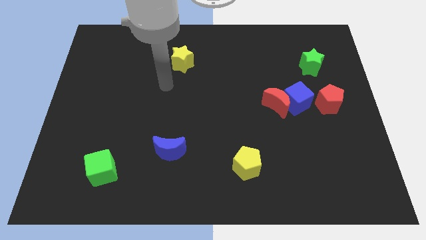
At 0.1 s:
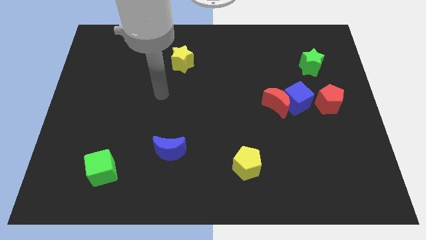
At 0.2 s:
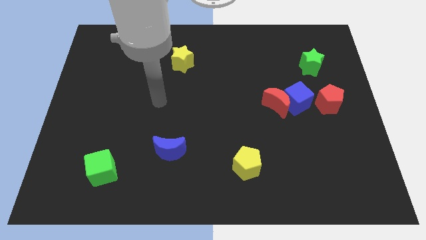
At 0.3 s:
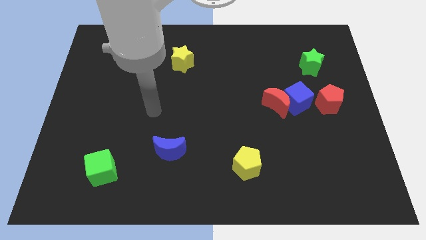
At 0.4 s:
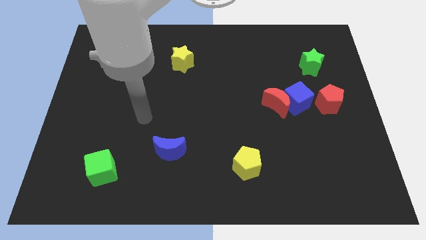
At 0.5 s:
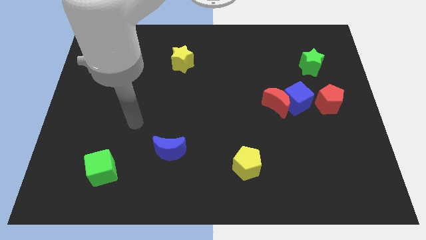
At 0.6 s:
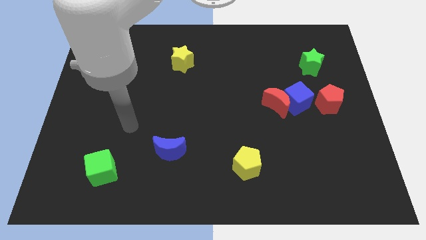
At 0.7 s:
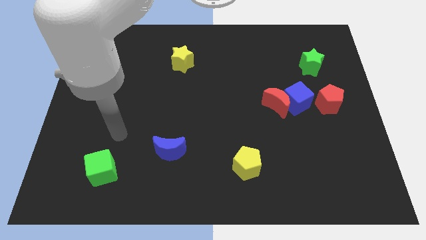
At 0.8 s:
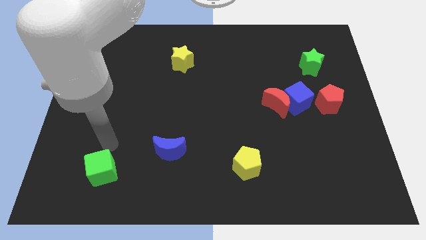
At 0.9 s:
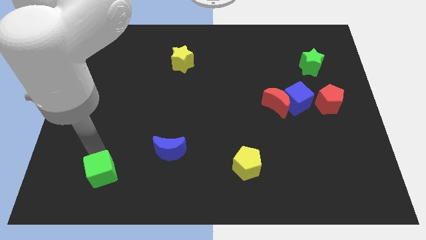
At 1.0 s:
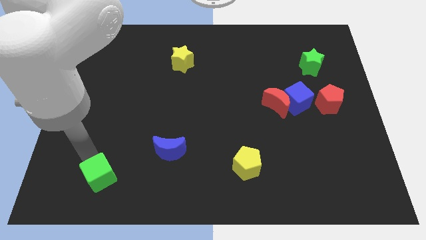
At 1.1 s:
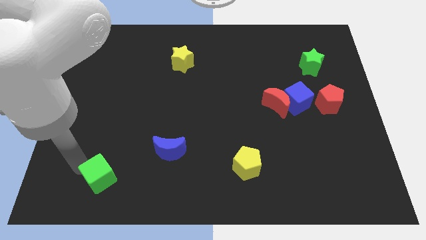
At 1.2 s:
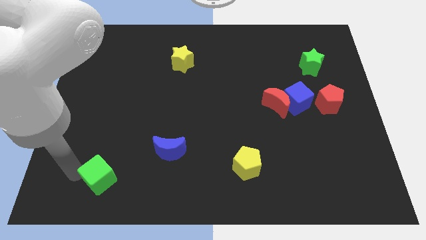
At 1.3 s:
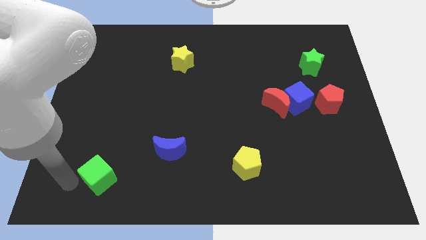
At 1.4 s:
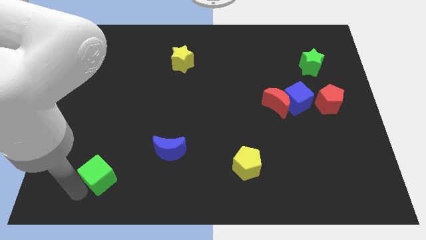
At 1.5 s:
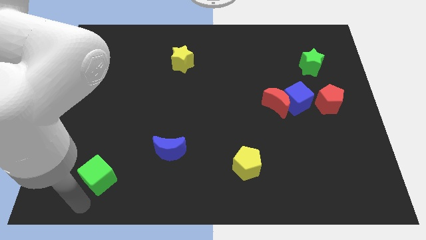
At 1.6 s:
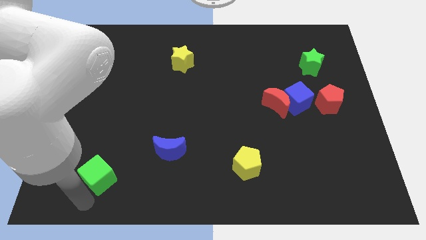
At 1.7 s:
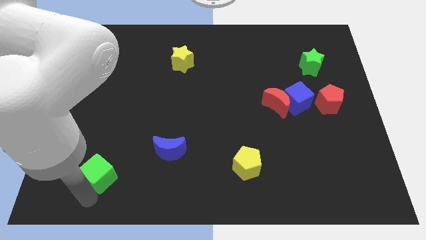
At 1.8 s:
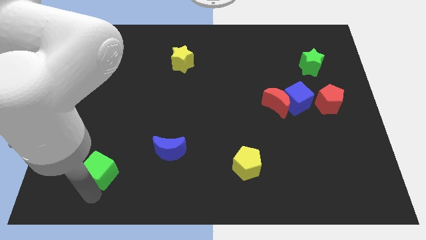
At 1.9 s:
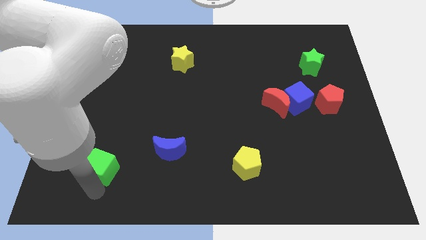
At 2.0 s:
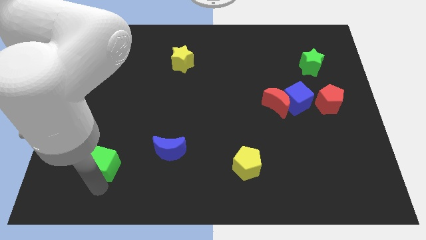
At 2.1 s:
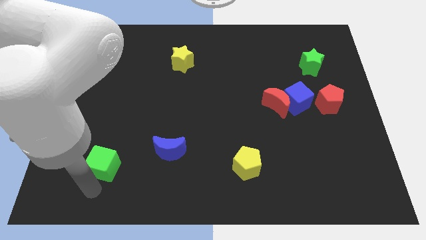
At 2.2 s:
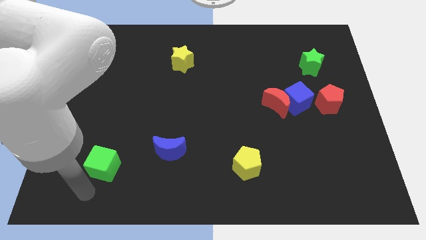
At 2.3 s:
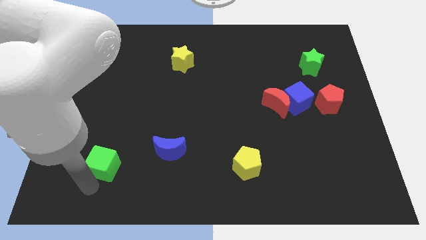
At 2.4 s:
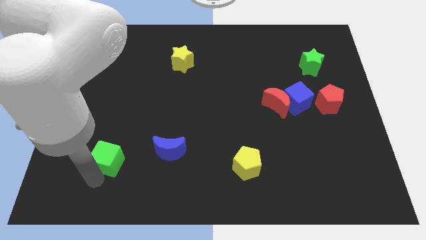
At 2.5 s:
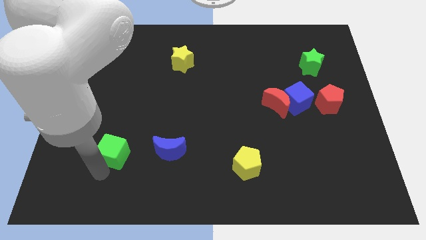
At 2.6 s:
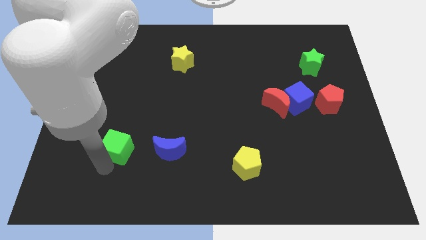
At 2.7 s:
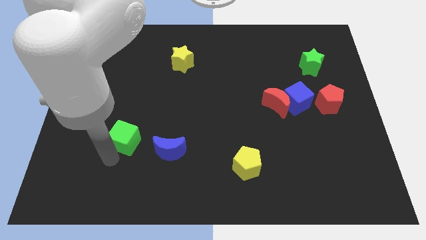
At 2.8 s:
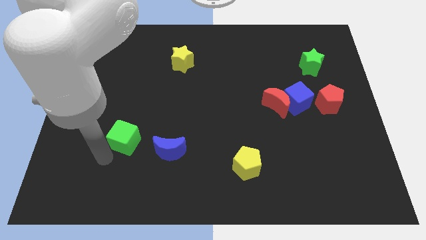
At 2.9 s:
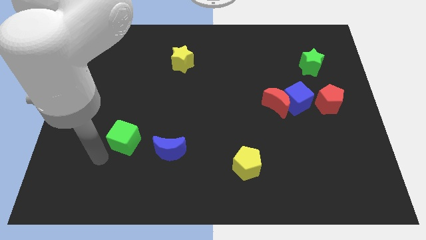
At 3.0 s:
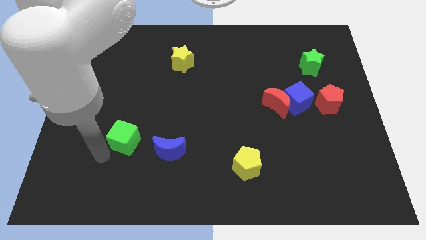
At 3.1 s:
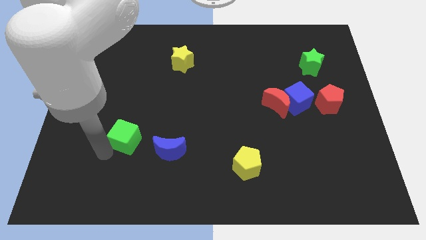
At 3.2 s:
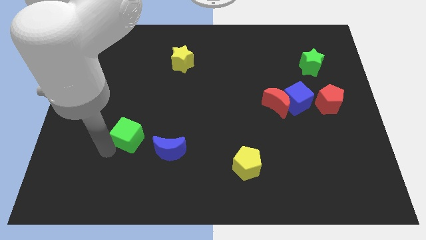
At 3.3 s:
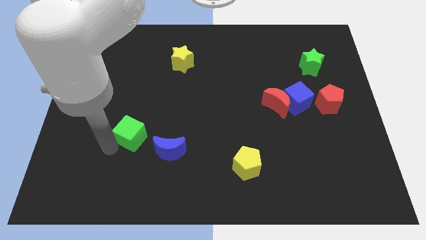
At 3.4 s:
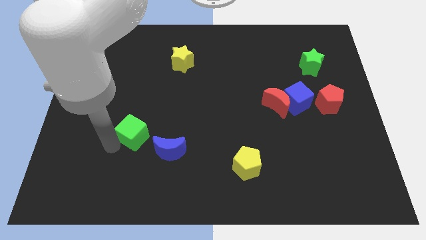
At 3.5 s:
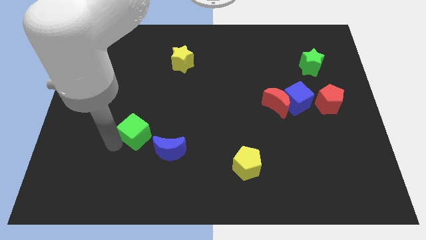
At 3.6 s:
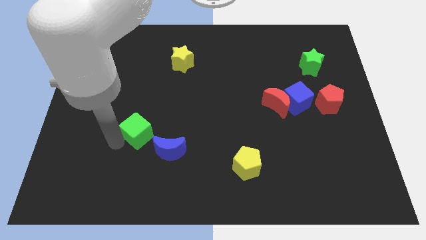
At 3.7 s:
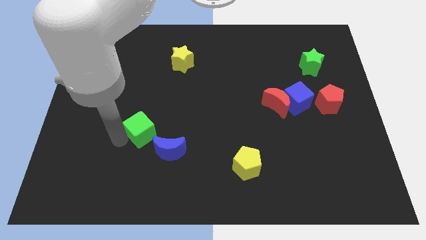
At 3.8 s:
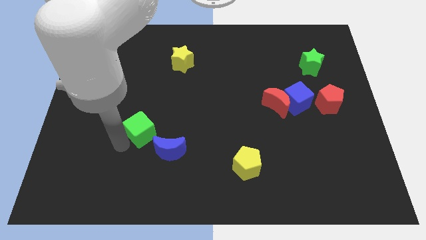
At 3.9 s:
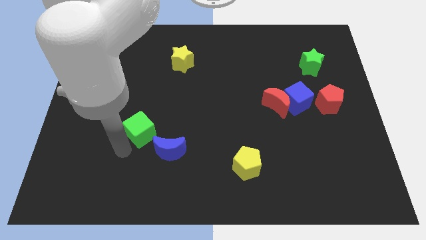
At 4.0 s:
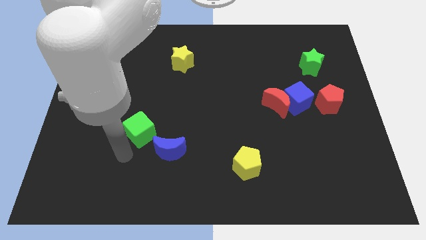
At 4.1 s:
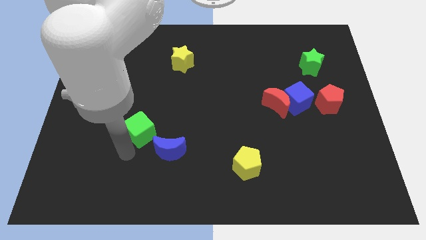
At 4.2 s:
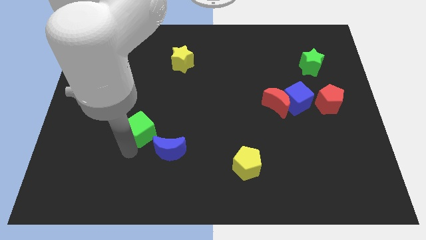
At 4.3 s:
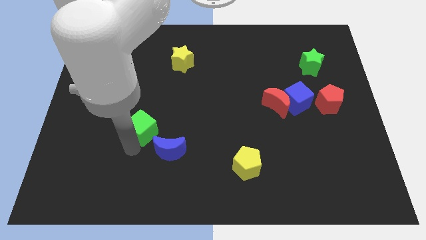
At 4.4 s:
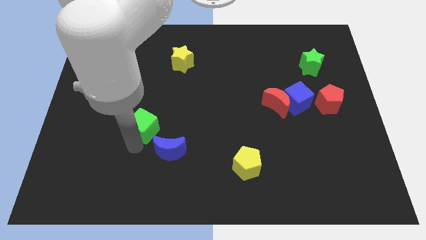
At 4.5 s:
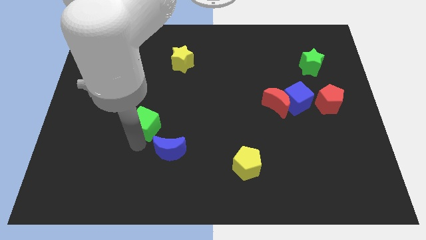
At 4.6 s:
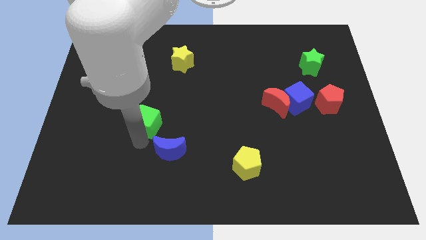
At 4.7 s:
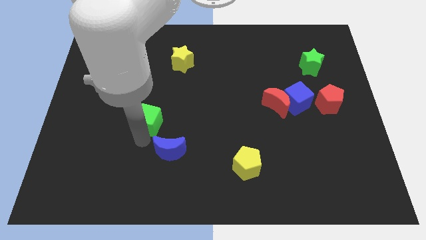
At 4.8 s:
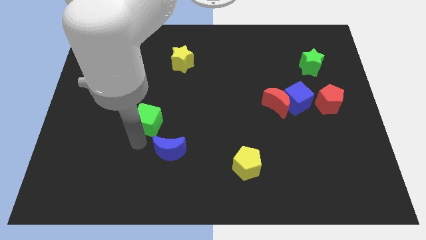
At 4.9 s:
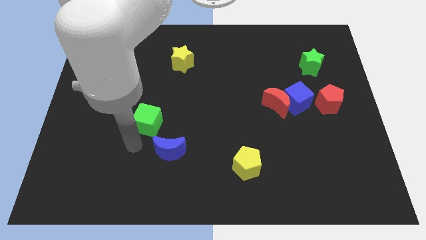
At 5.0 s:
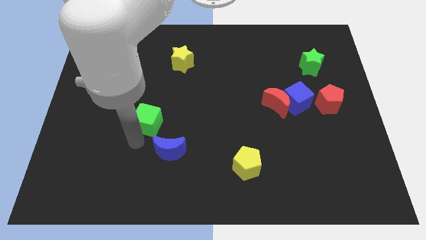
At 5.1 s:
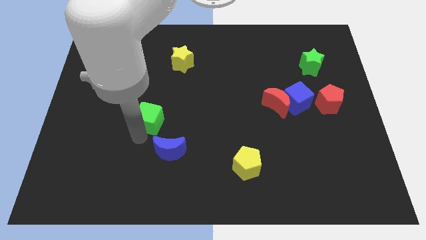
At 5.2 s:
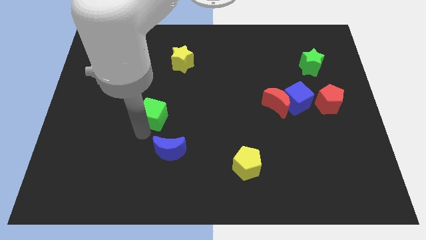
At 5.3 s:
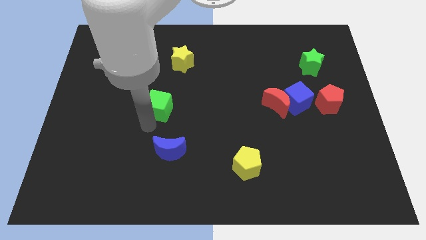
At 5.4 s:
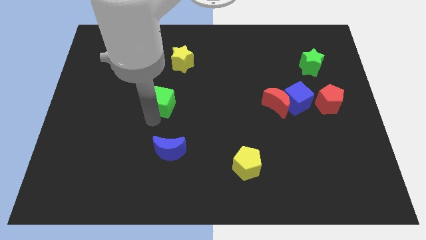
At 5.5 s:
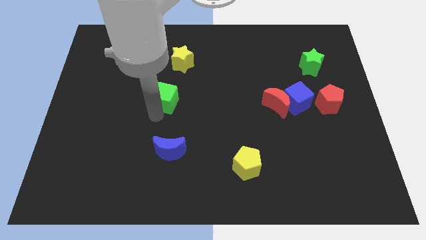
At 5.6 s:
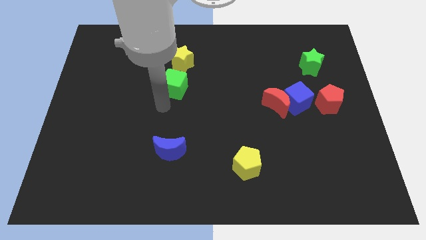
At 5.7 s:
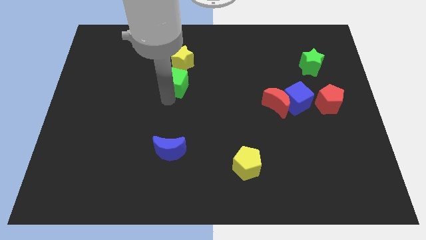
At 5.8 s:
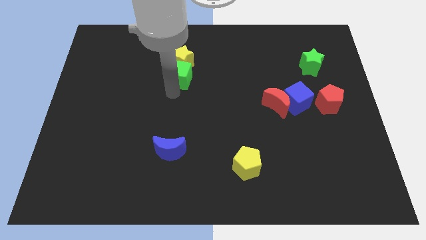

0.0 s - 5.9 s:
put the green cube close to the yellow star

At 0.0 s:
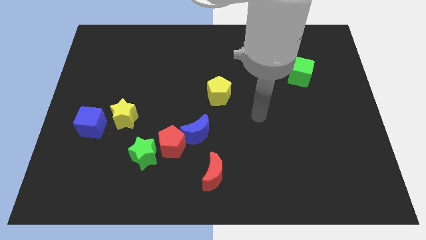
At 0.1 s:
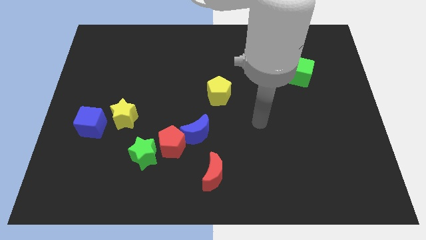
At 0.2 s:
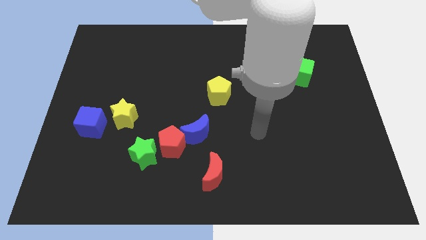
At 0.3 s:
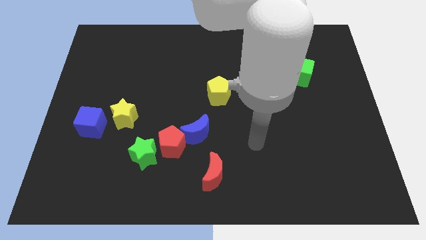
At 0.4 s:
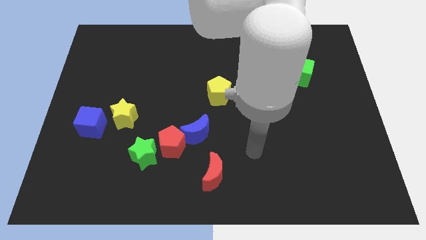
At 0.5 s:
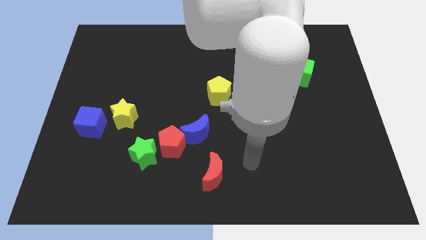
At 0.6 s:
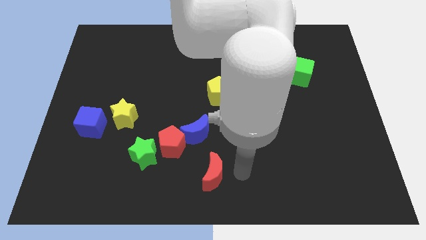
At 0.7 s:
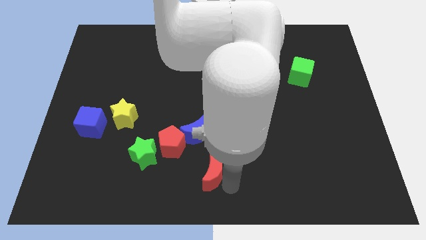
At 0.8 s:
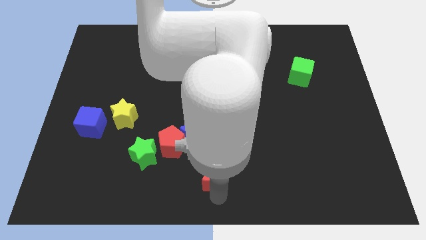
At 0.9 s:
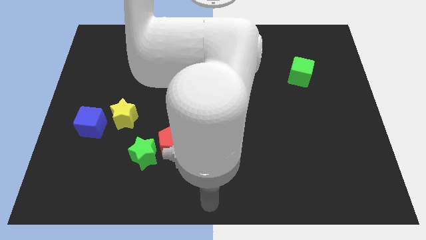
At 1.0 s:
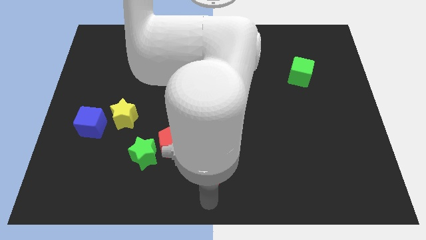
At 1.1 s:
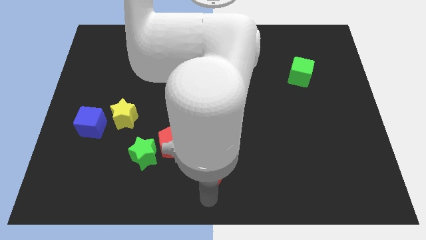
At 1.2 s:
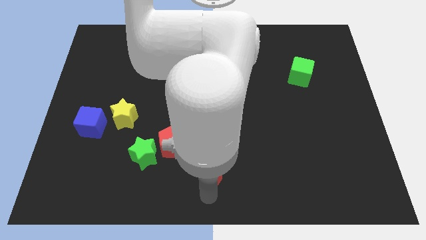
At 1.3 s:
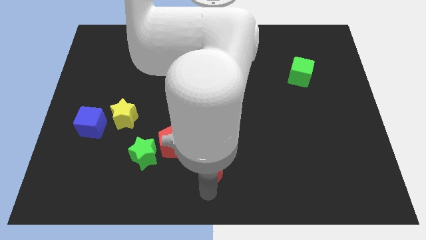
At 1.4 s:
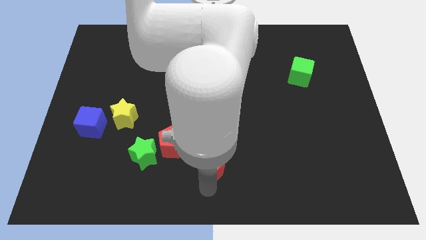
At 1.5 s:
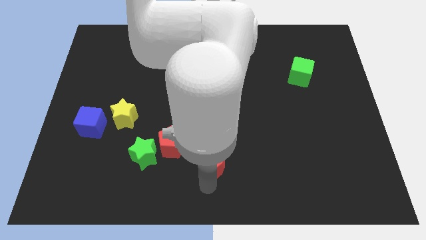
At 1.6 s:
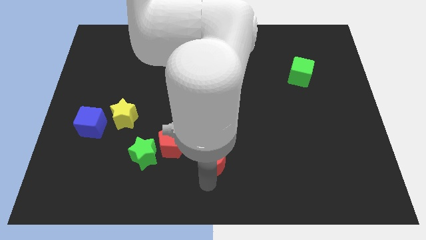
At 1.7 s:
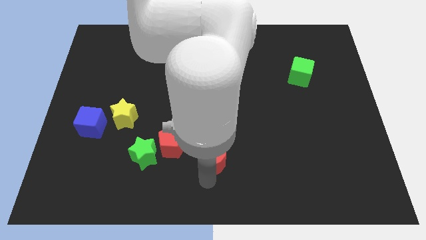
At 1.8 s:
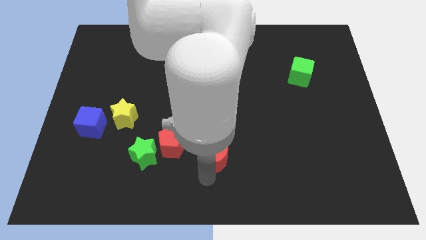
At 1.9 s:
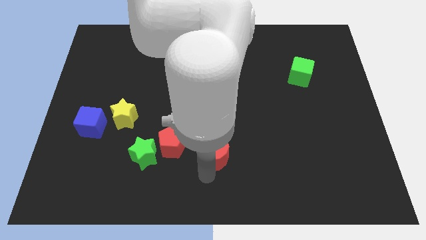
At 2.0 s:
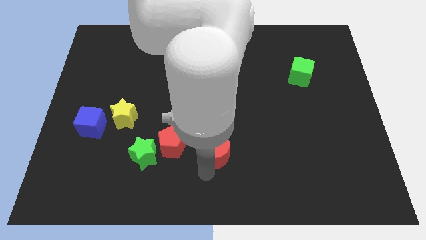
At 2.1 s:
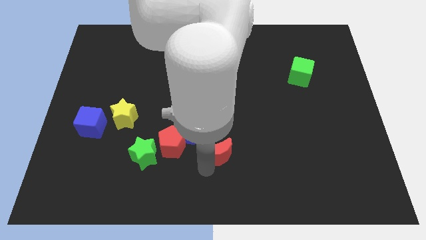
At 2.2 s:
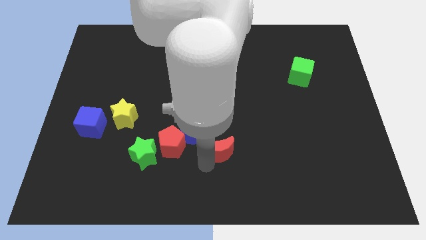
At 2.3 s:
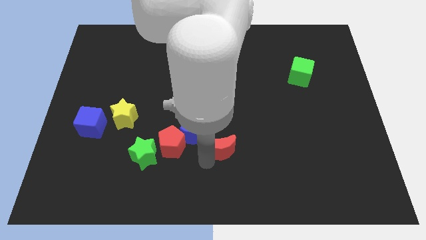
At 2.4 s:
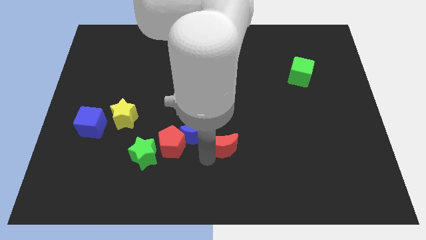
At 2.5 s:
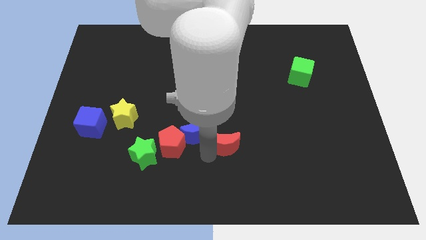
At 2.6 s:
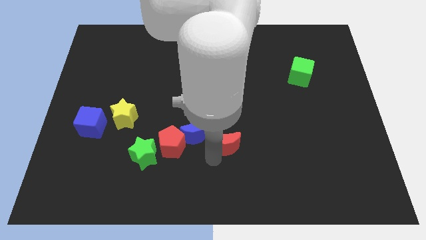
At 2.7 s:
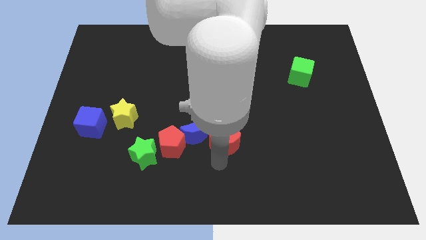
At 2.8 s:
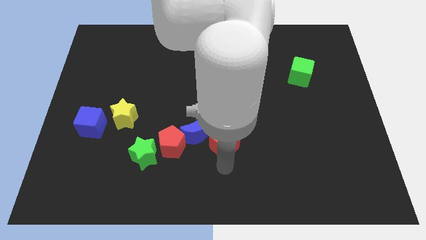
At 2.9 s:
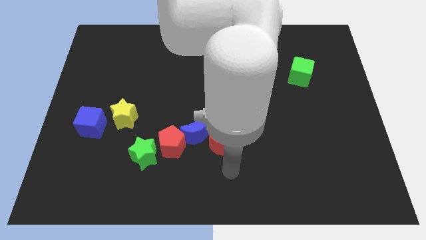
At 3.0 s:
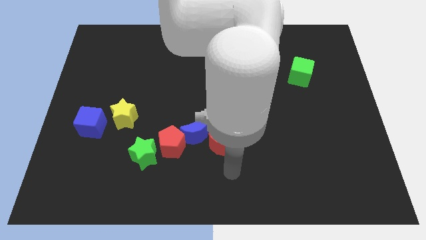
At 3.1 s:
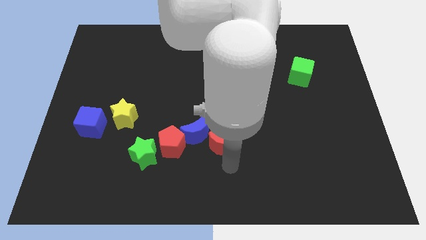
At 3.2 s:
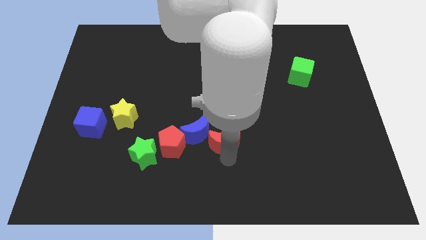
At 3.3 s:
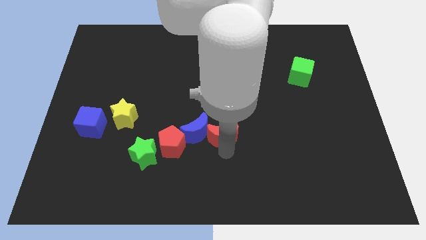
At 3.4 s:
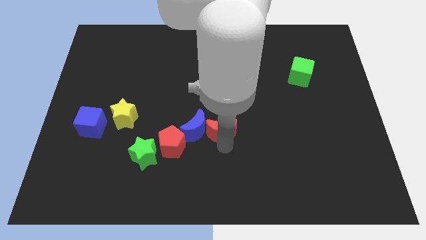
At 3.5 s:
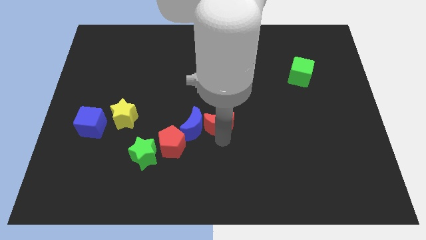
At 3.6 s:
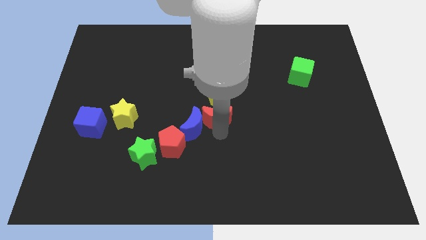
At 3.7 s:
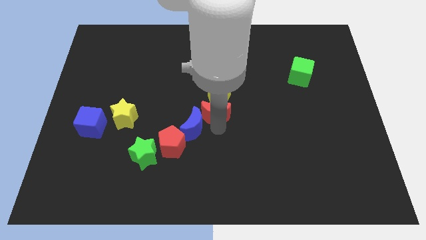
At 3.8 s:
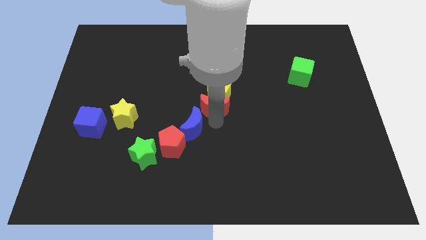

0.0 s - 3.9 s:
slide the red moon next to the yellow pentagon
